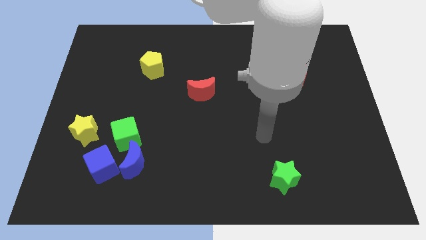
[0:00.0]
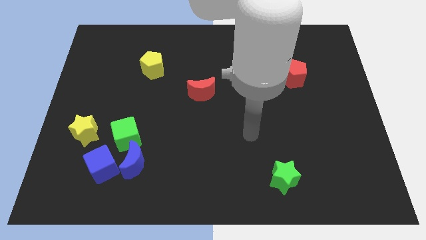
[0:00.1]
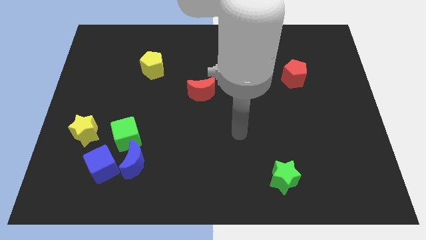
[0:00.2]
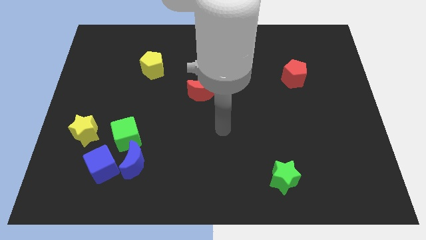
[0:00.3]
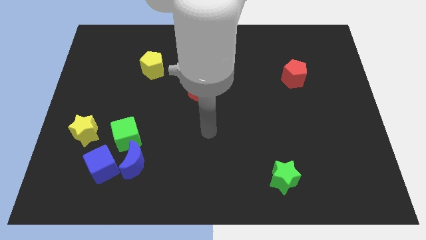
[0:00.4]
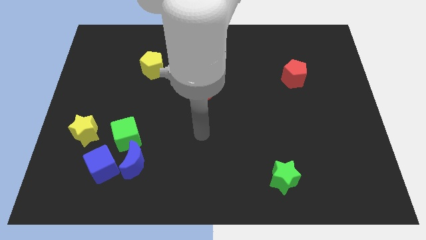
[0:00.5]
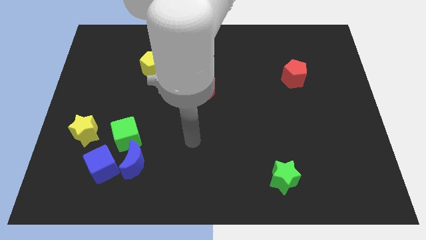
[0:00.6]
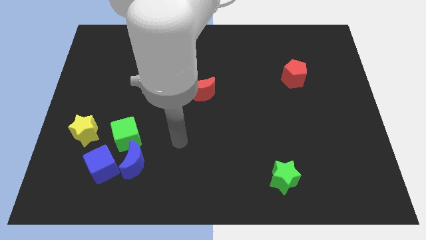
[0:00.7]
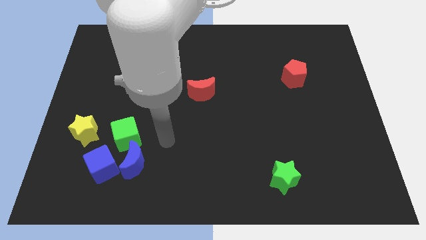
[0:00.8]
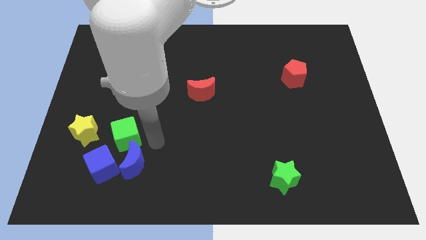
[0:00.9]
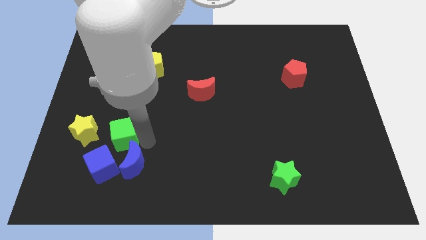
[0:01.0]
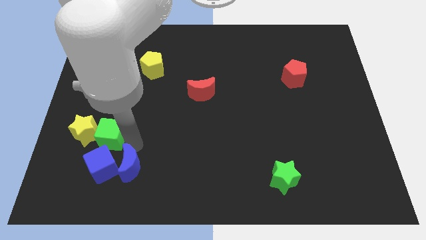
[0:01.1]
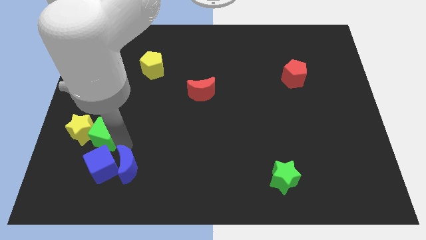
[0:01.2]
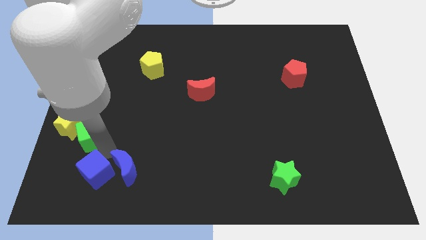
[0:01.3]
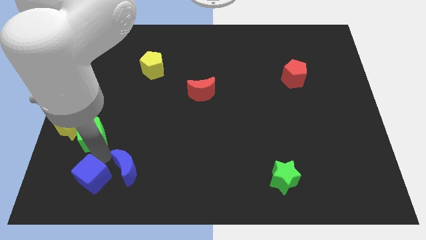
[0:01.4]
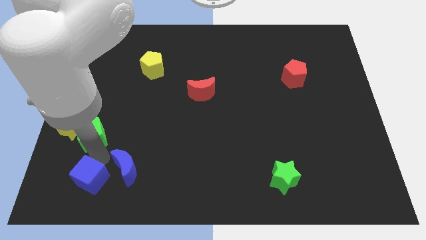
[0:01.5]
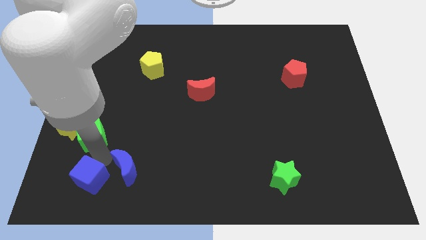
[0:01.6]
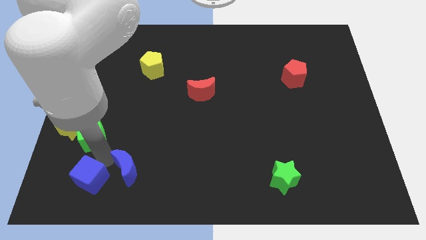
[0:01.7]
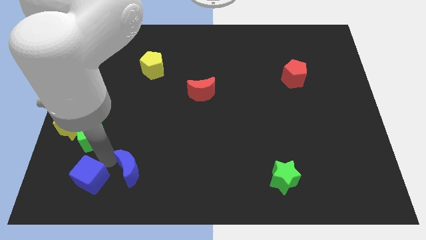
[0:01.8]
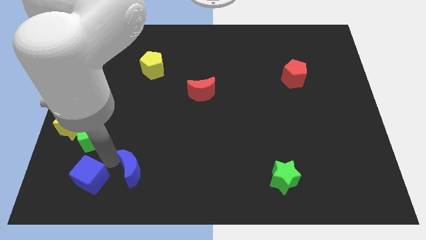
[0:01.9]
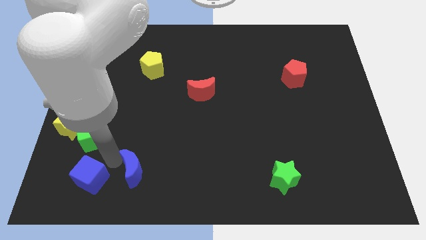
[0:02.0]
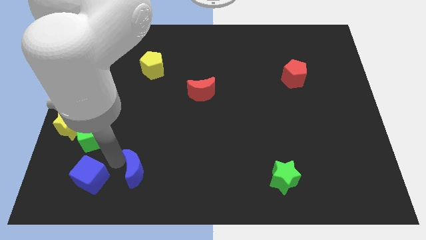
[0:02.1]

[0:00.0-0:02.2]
separate the blue moon from the blue cube and green cube

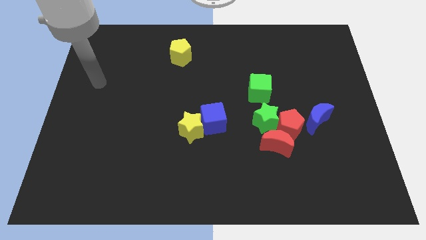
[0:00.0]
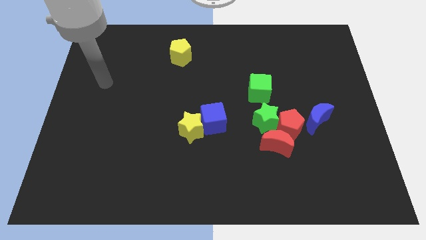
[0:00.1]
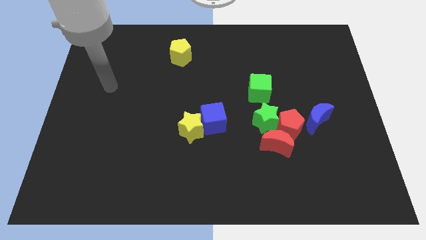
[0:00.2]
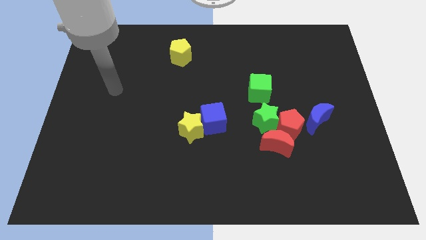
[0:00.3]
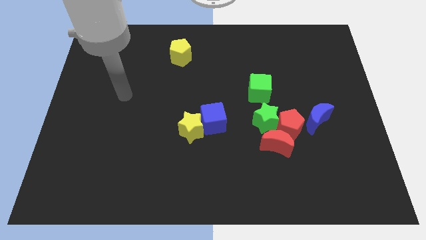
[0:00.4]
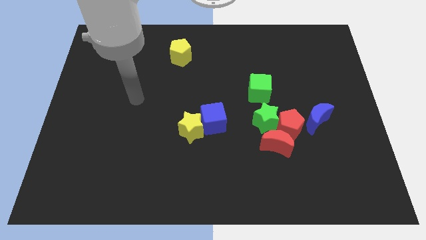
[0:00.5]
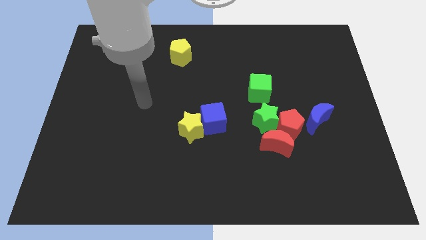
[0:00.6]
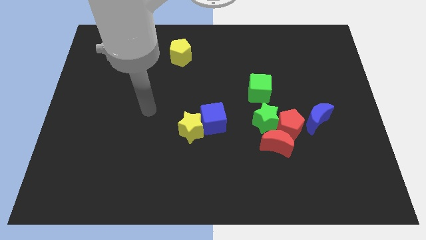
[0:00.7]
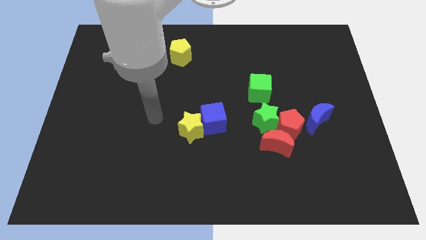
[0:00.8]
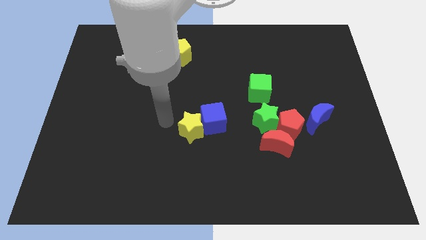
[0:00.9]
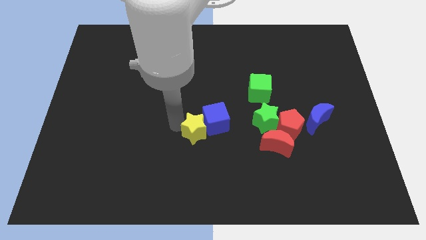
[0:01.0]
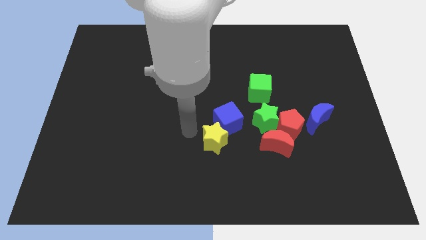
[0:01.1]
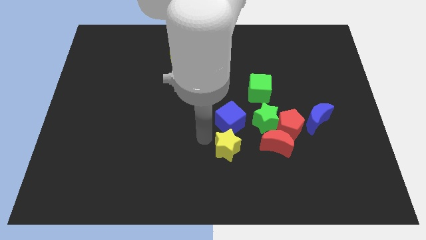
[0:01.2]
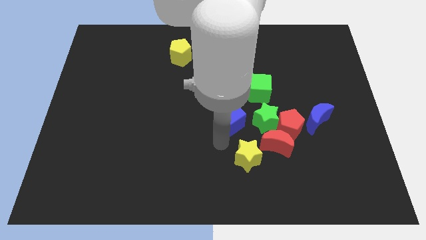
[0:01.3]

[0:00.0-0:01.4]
pull the blue cube apart from the yellow star

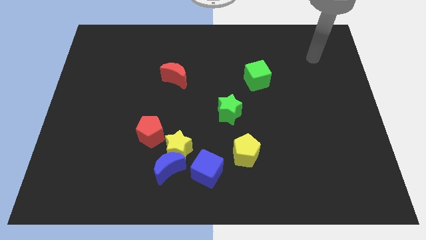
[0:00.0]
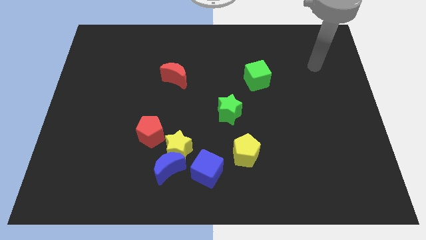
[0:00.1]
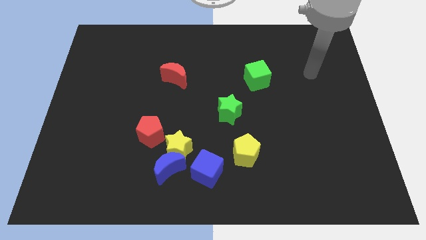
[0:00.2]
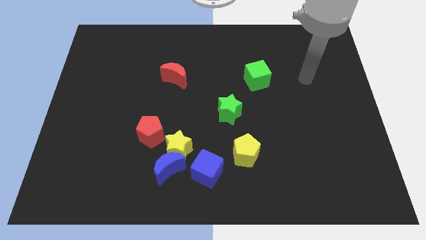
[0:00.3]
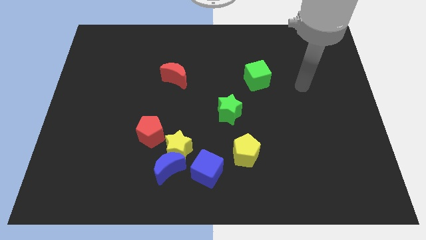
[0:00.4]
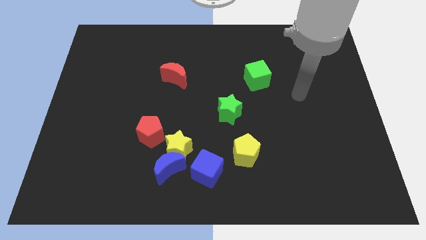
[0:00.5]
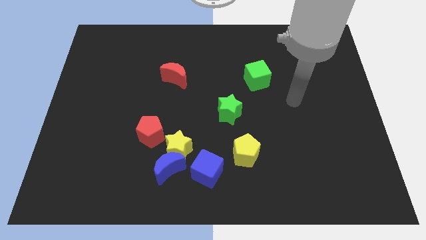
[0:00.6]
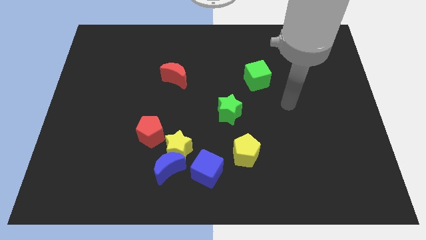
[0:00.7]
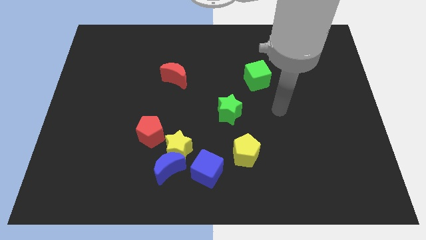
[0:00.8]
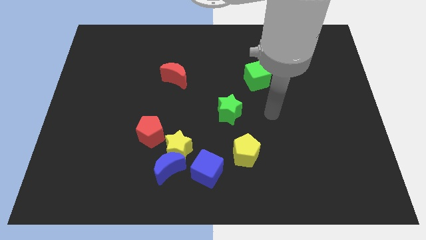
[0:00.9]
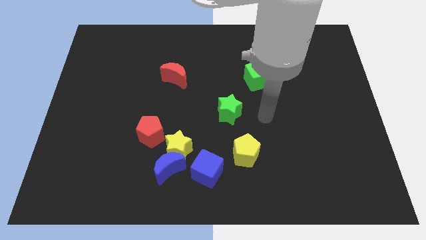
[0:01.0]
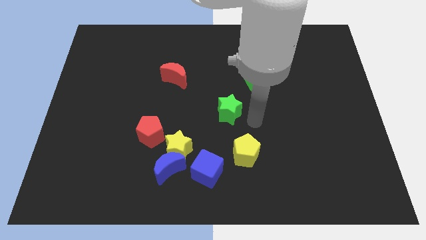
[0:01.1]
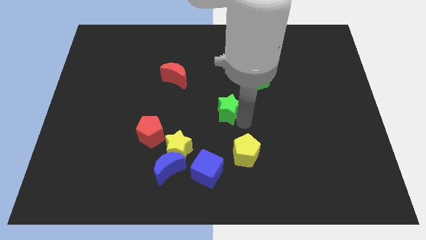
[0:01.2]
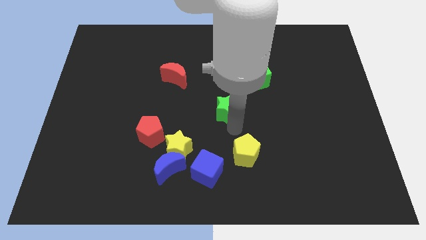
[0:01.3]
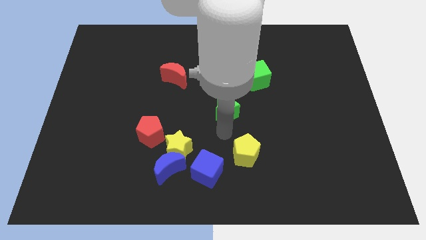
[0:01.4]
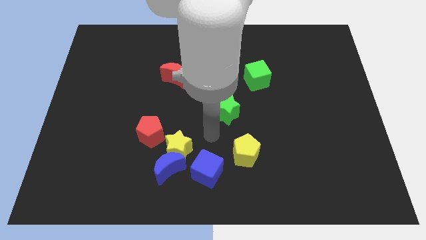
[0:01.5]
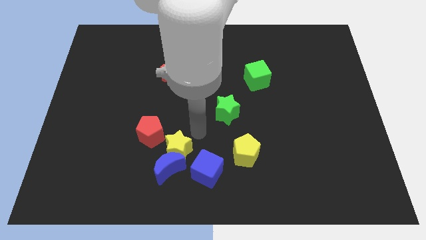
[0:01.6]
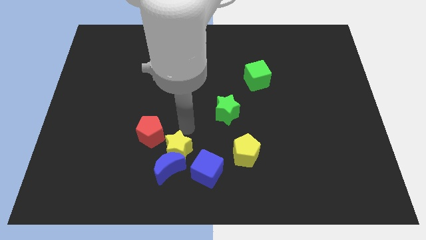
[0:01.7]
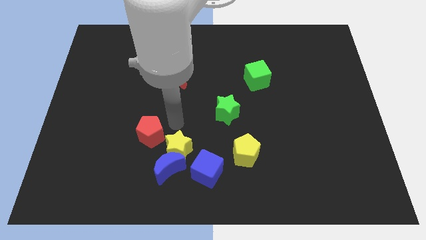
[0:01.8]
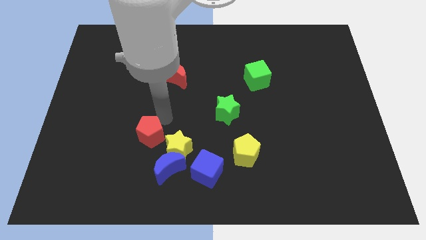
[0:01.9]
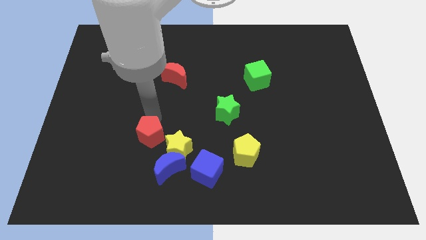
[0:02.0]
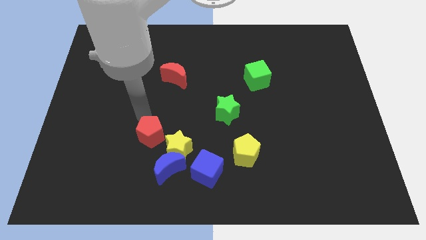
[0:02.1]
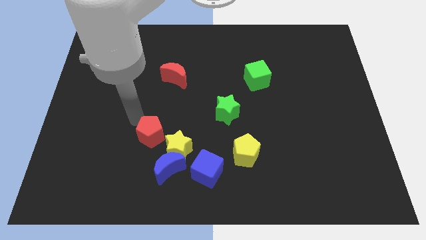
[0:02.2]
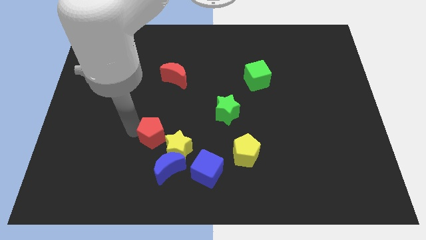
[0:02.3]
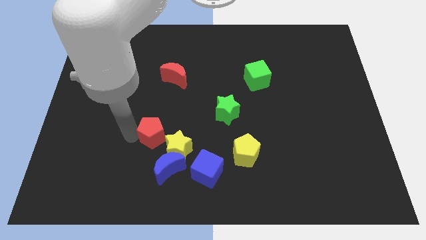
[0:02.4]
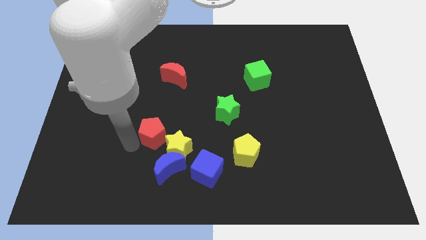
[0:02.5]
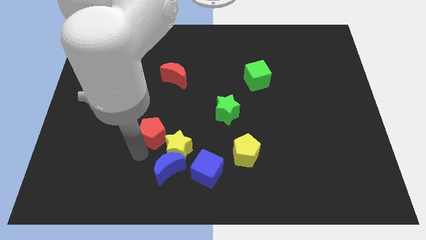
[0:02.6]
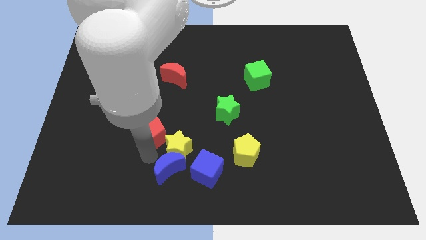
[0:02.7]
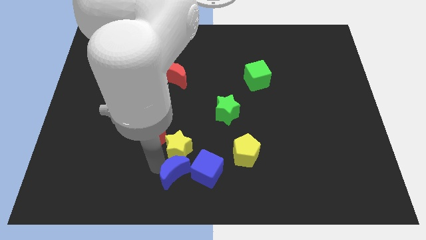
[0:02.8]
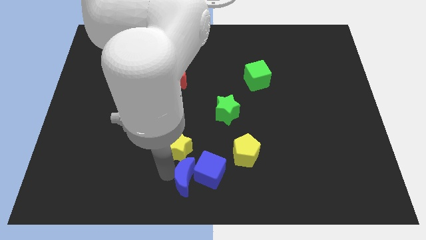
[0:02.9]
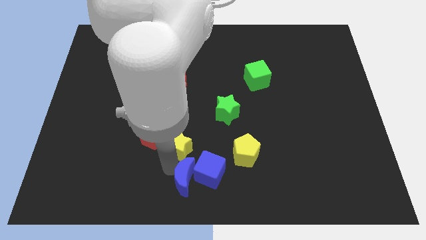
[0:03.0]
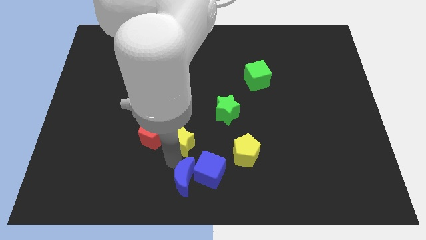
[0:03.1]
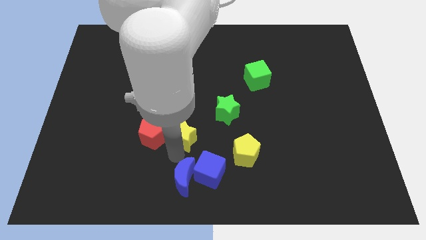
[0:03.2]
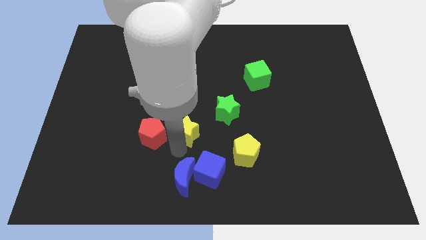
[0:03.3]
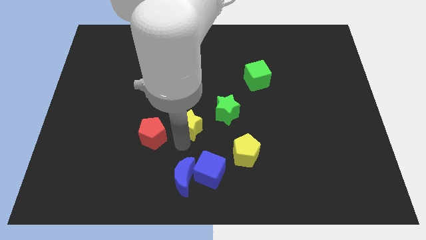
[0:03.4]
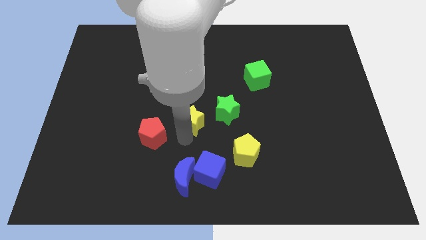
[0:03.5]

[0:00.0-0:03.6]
separate the yellow star from the blue moon, red pentagon, and blue cube

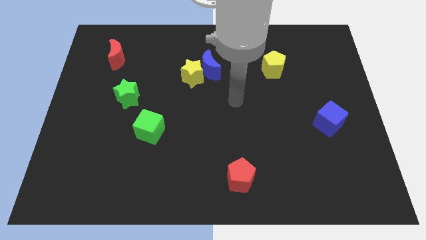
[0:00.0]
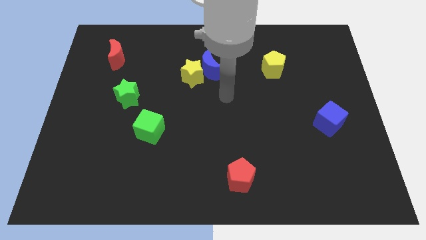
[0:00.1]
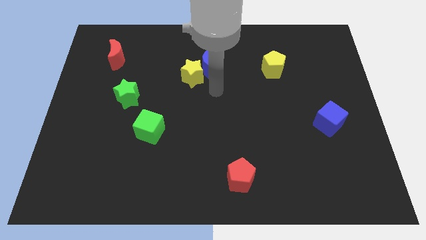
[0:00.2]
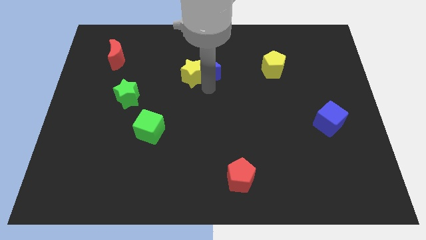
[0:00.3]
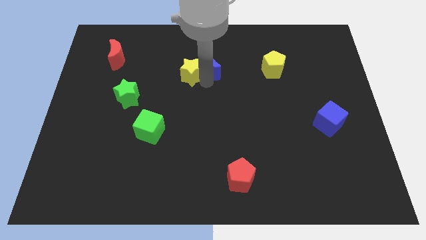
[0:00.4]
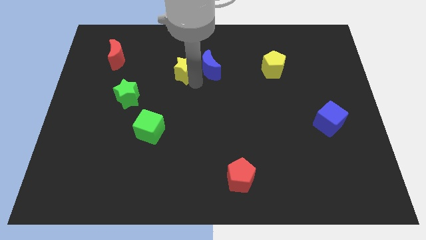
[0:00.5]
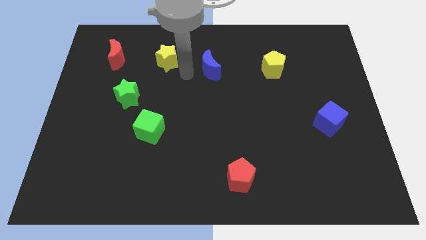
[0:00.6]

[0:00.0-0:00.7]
move the blue moon away from the yellow star

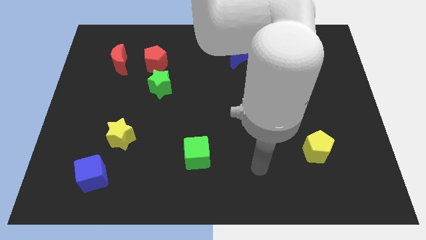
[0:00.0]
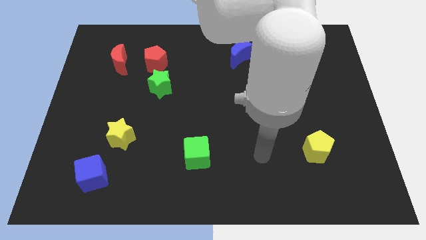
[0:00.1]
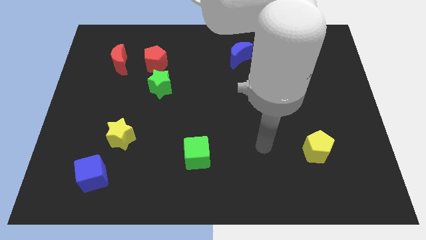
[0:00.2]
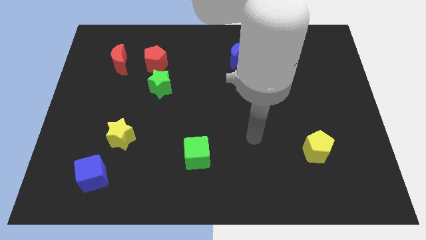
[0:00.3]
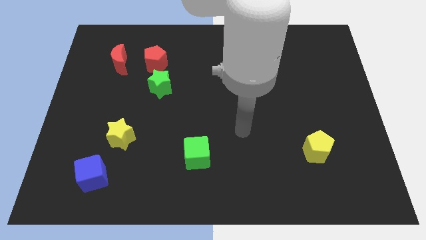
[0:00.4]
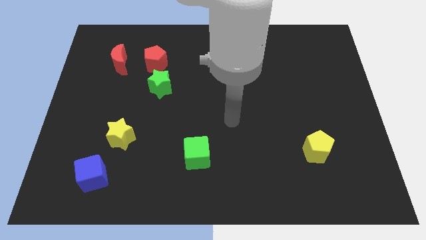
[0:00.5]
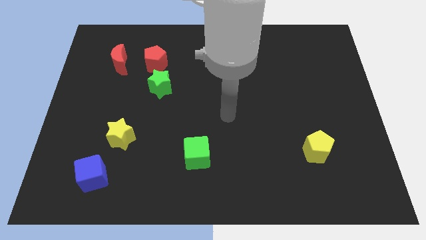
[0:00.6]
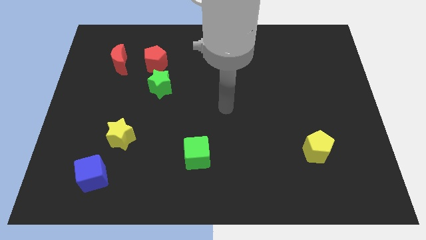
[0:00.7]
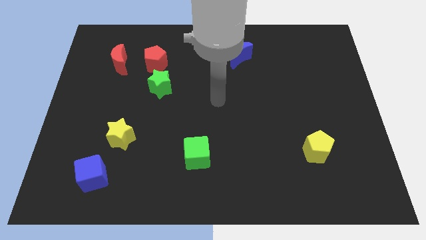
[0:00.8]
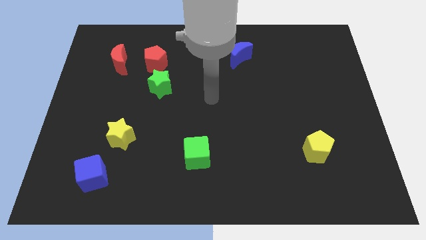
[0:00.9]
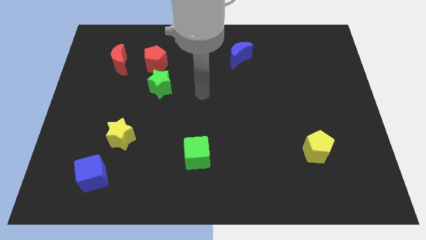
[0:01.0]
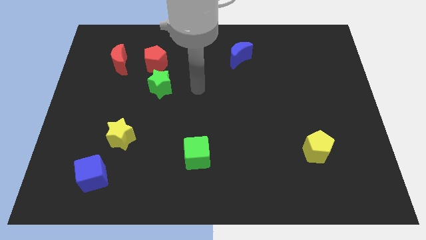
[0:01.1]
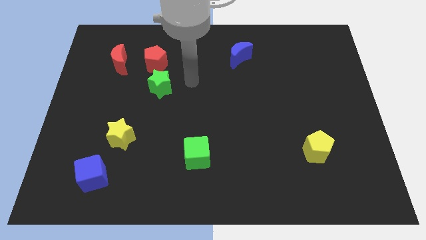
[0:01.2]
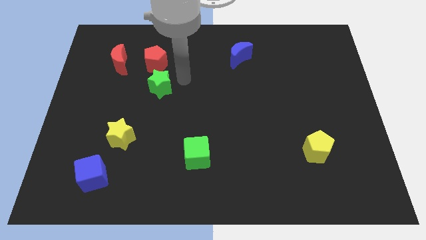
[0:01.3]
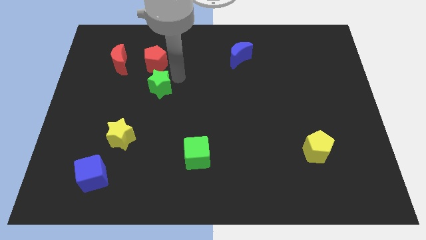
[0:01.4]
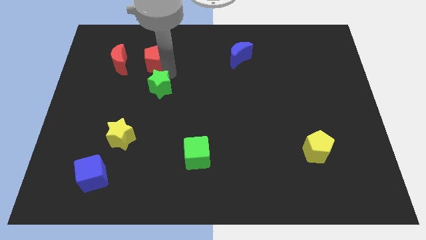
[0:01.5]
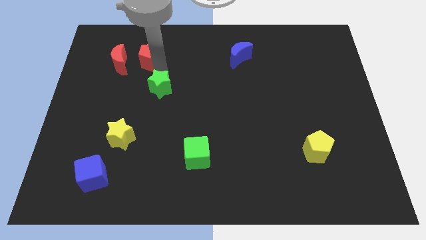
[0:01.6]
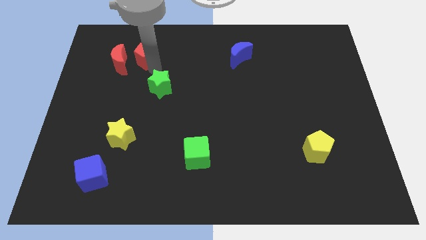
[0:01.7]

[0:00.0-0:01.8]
separate the green star from the red pentagon
